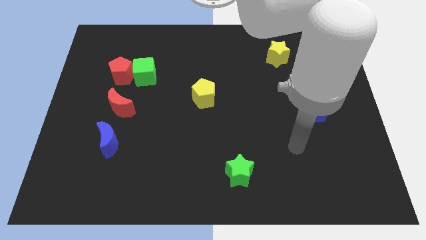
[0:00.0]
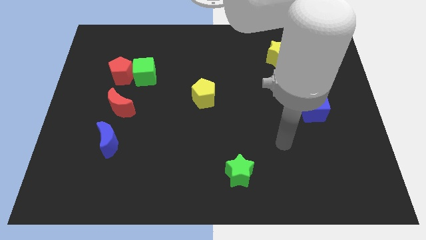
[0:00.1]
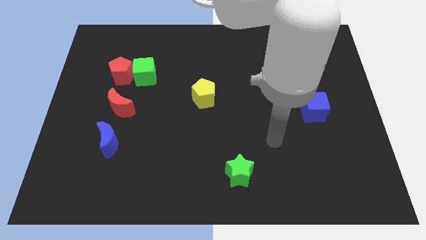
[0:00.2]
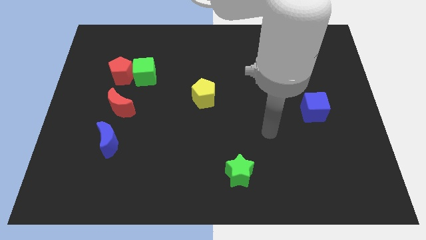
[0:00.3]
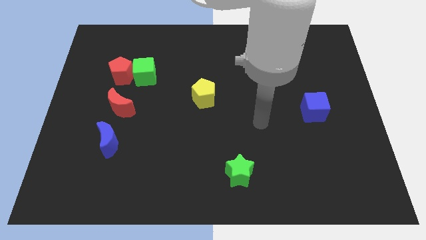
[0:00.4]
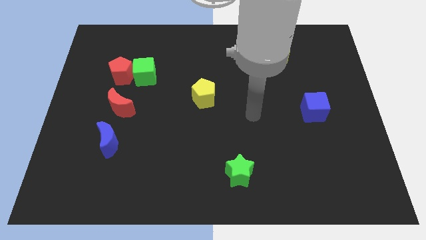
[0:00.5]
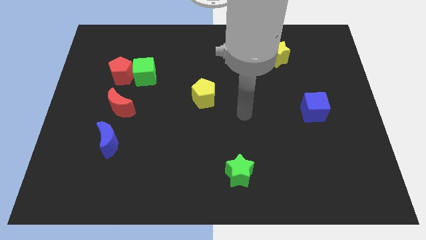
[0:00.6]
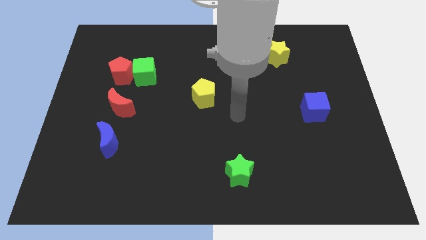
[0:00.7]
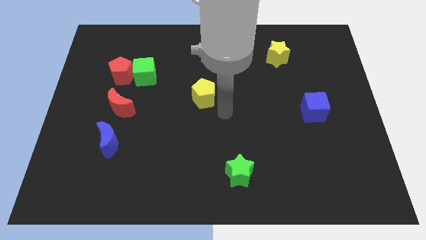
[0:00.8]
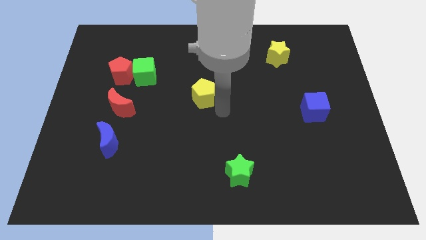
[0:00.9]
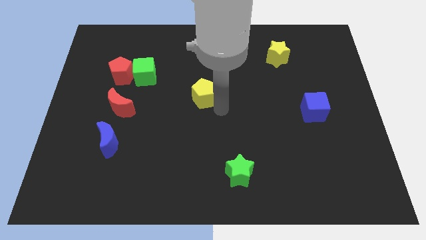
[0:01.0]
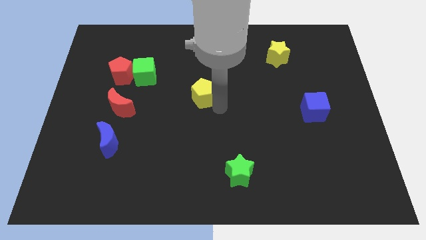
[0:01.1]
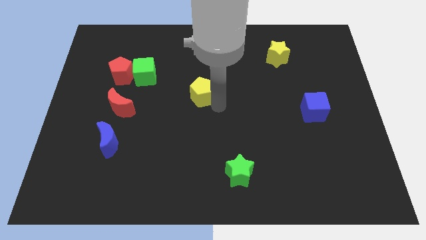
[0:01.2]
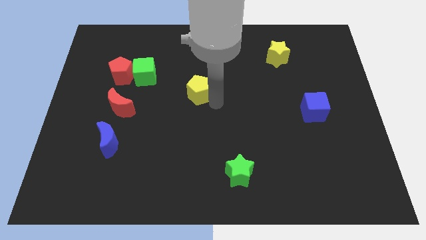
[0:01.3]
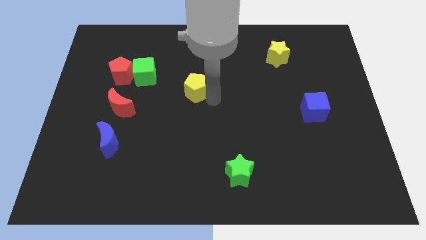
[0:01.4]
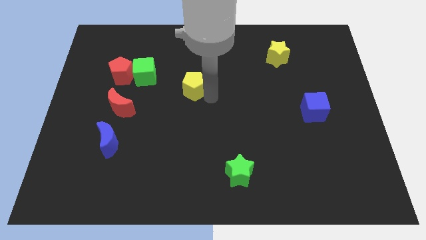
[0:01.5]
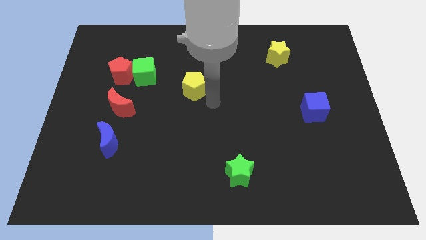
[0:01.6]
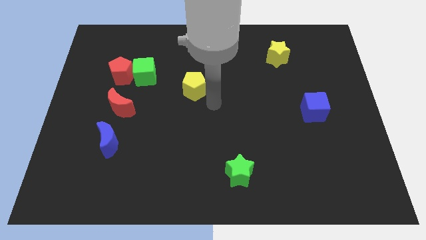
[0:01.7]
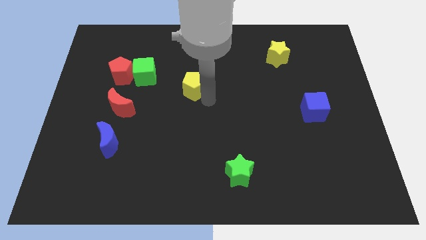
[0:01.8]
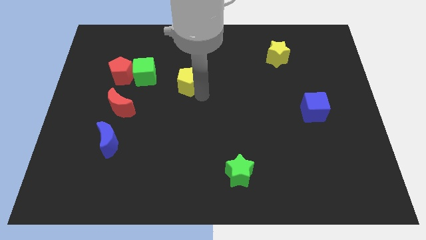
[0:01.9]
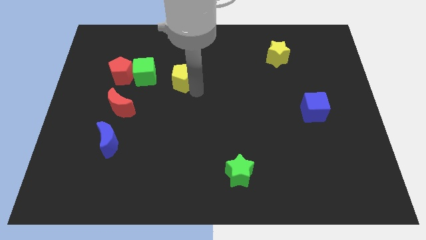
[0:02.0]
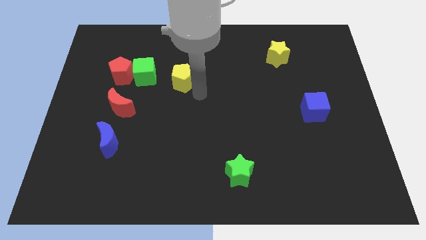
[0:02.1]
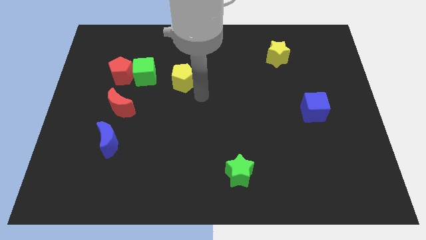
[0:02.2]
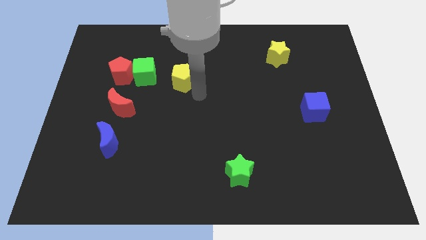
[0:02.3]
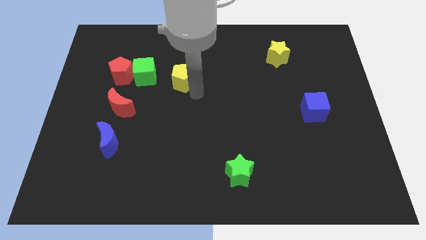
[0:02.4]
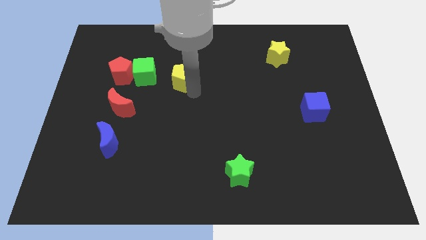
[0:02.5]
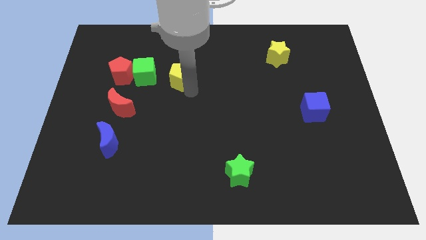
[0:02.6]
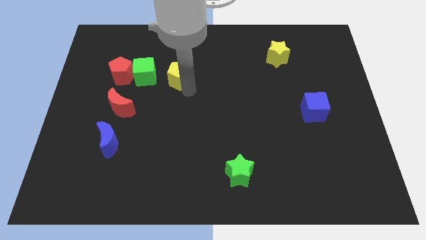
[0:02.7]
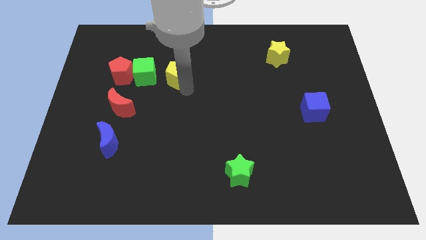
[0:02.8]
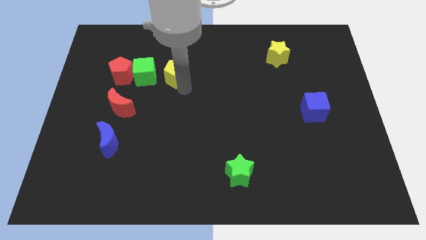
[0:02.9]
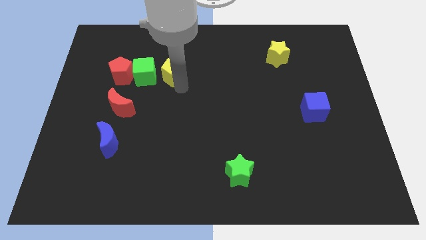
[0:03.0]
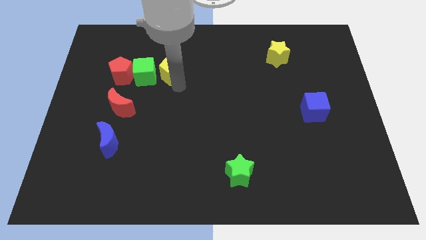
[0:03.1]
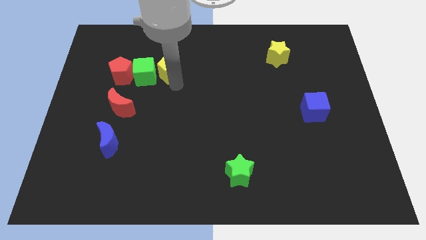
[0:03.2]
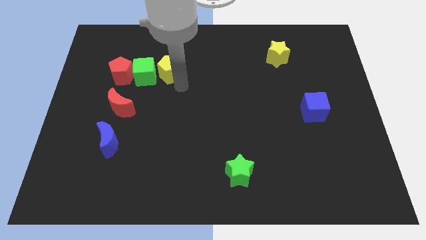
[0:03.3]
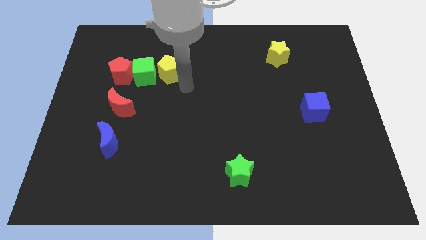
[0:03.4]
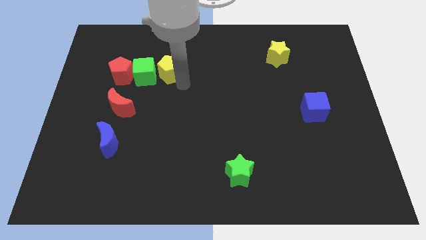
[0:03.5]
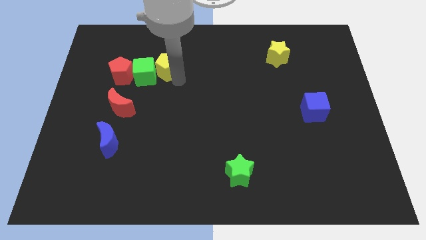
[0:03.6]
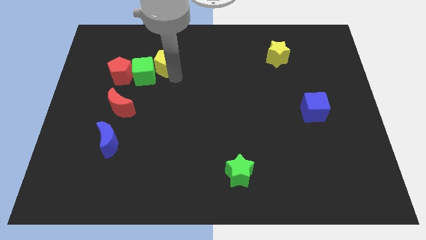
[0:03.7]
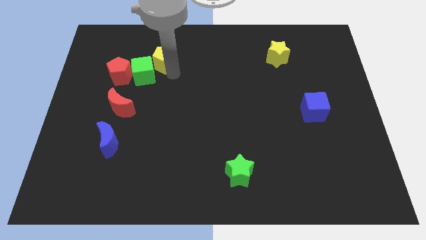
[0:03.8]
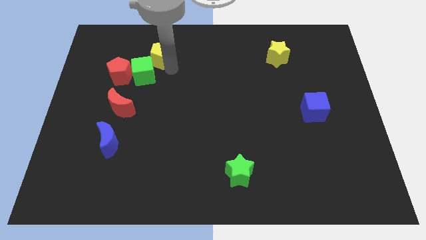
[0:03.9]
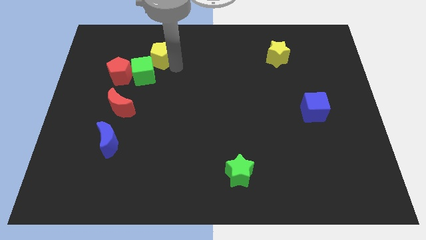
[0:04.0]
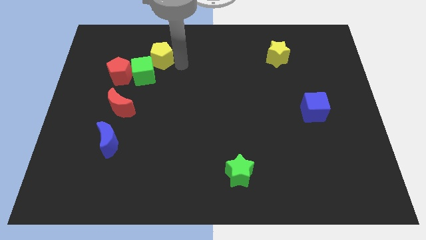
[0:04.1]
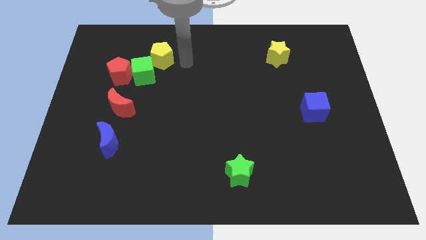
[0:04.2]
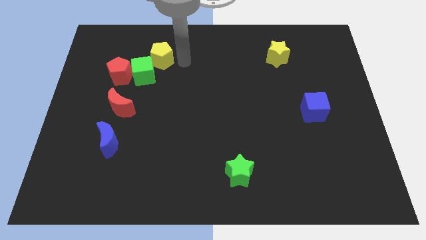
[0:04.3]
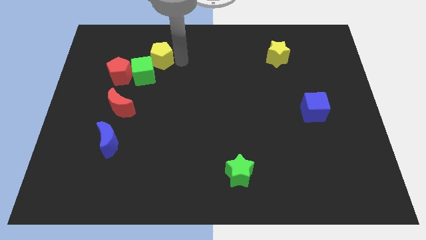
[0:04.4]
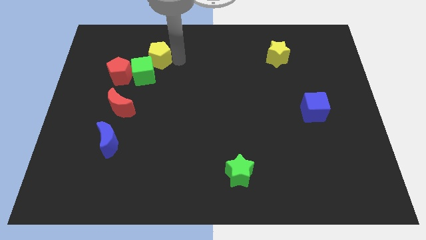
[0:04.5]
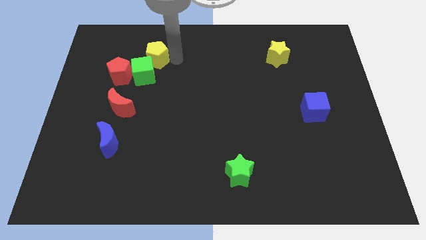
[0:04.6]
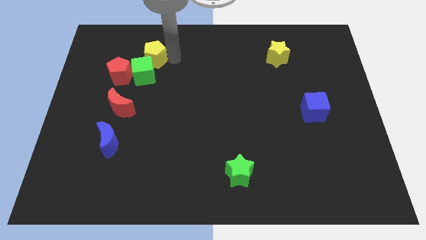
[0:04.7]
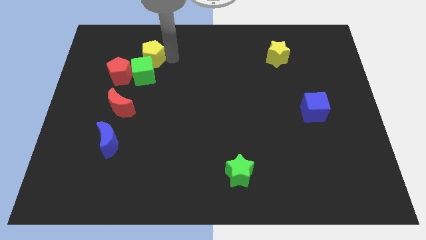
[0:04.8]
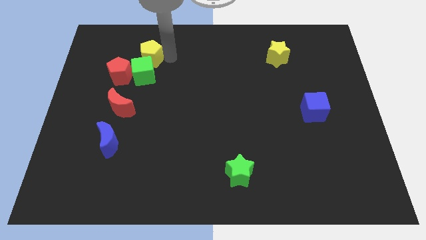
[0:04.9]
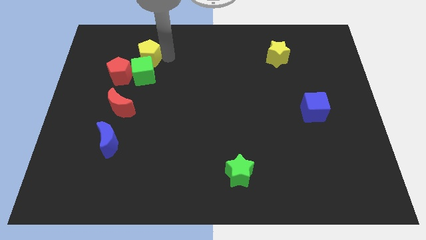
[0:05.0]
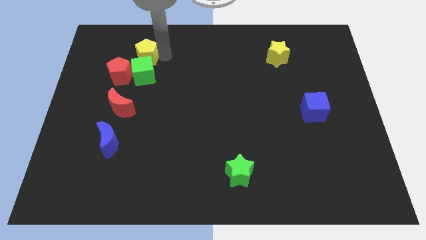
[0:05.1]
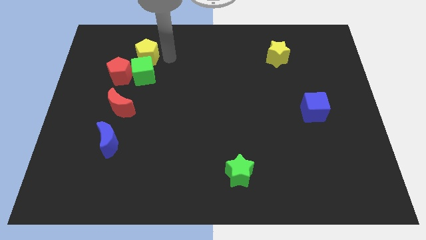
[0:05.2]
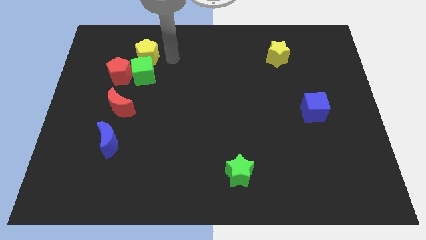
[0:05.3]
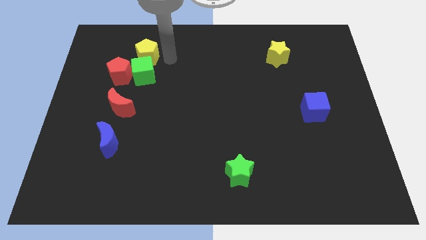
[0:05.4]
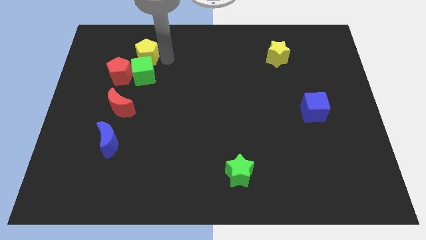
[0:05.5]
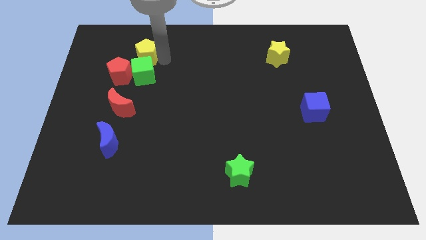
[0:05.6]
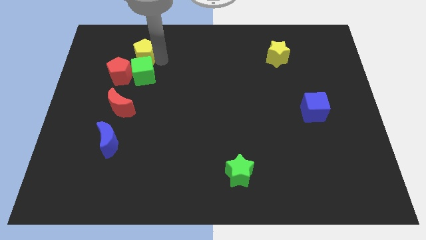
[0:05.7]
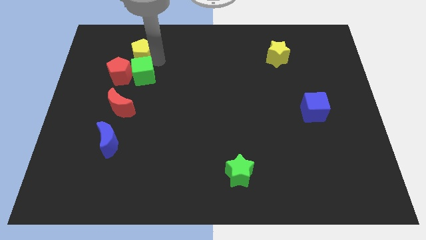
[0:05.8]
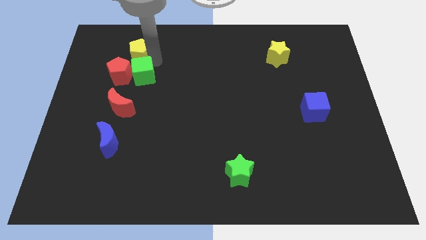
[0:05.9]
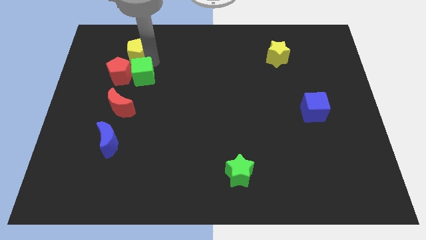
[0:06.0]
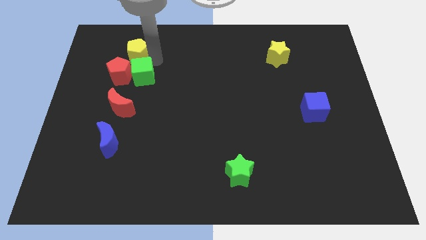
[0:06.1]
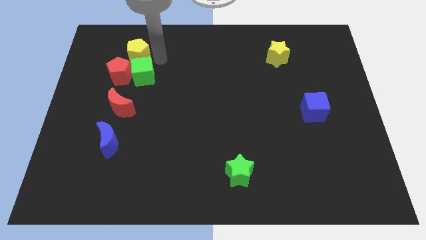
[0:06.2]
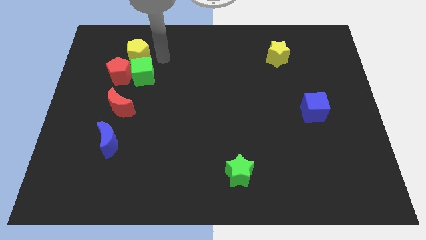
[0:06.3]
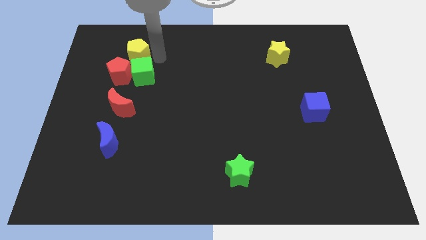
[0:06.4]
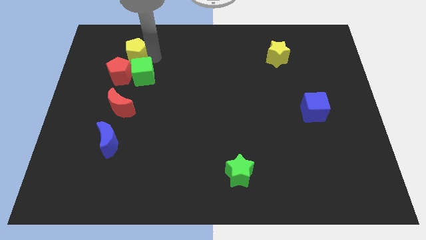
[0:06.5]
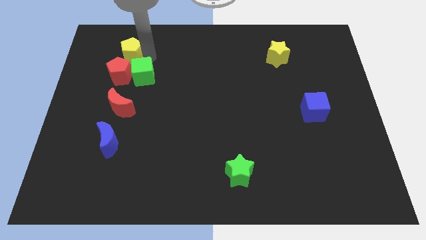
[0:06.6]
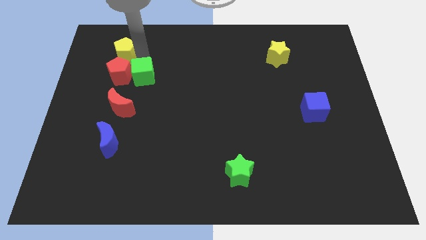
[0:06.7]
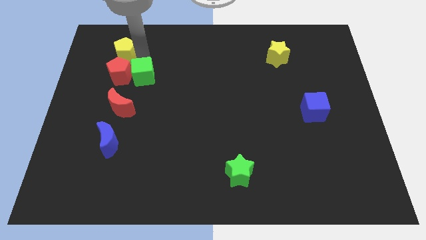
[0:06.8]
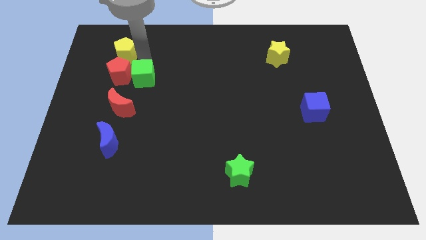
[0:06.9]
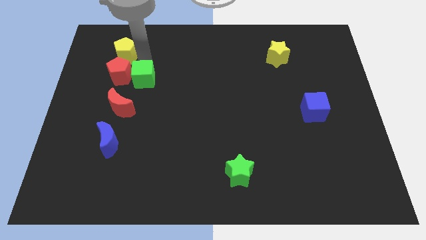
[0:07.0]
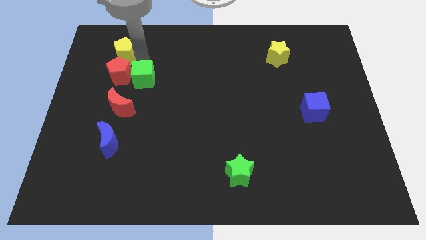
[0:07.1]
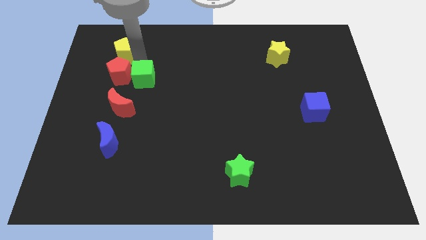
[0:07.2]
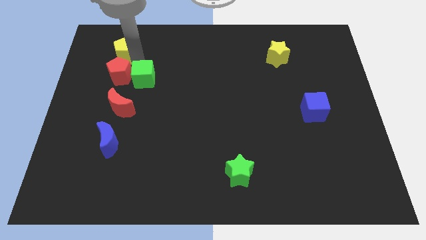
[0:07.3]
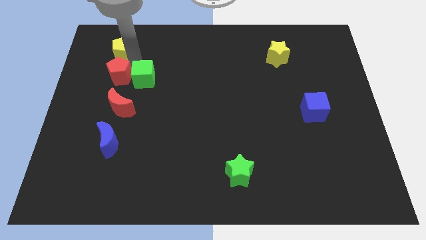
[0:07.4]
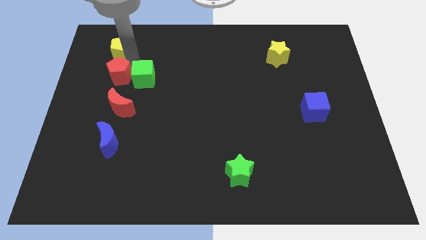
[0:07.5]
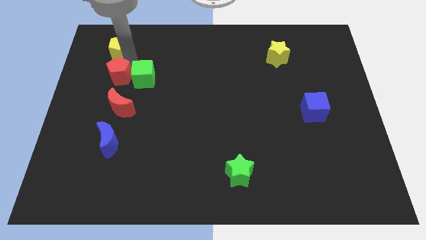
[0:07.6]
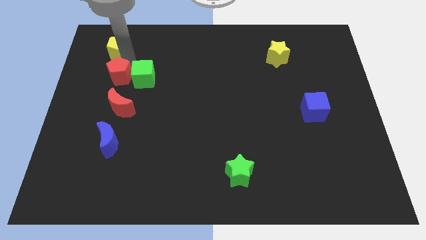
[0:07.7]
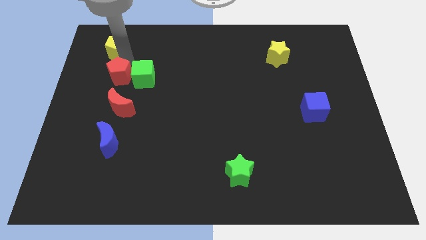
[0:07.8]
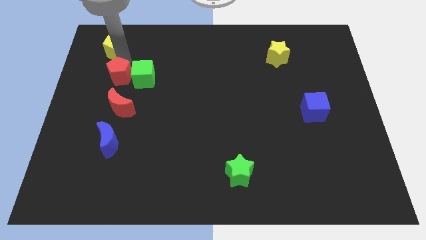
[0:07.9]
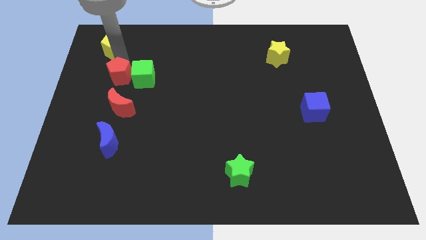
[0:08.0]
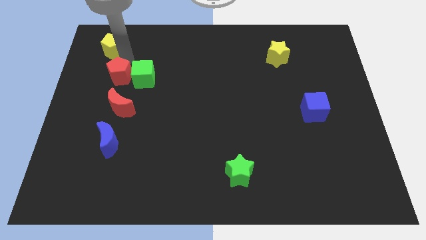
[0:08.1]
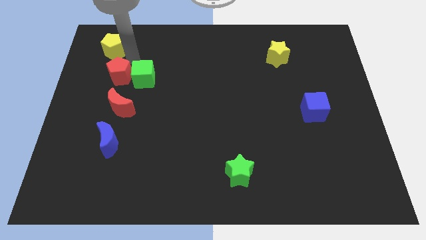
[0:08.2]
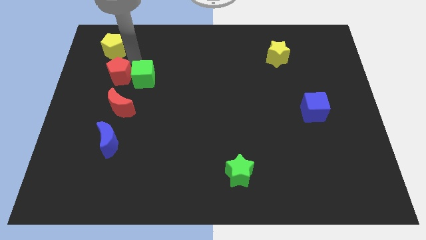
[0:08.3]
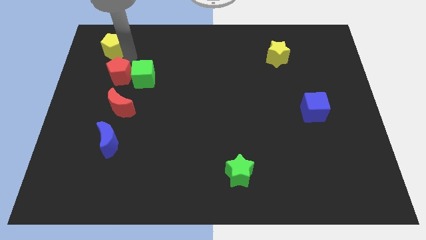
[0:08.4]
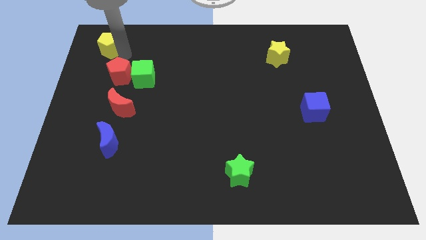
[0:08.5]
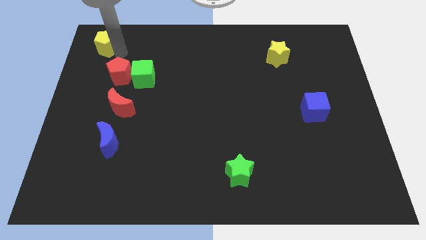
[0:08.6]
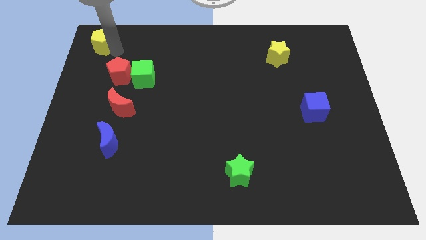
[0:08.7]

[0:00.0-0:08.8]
slide the yellow pentagon to the top left of the board
